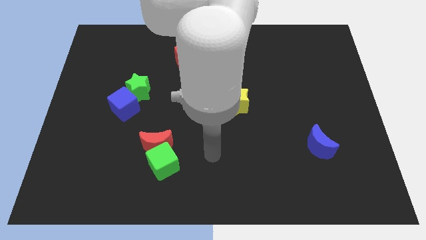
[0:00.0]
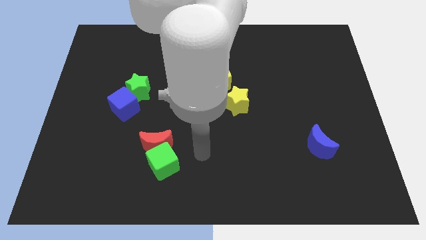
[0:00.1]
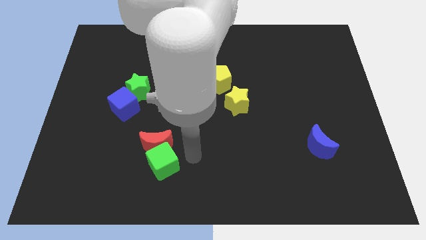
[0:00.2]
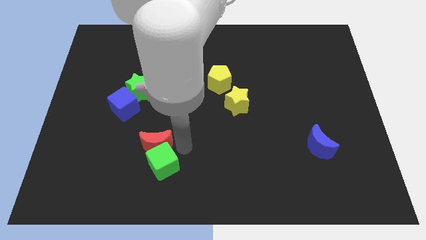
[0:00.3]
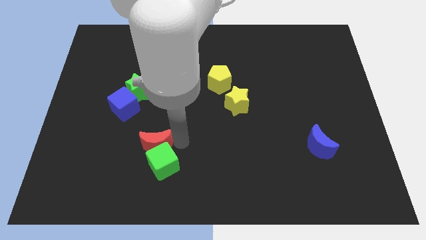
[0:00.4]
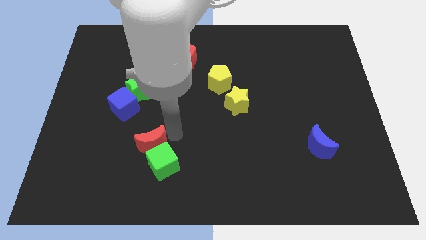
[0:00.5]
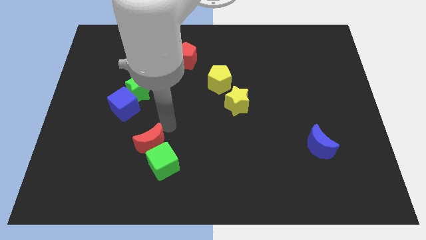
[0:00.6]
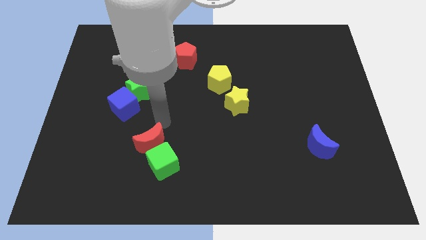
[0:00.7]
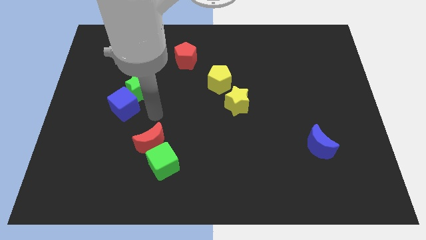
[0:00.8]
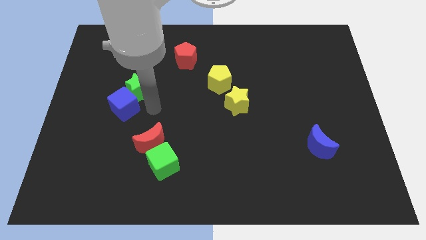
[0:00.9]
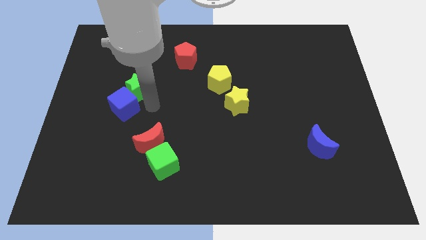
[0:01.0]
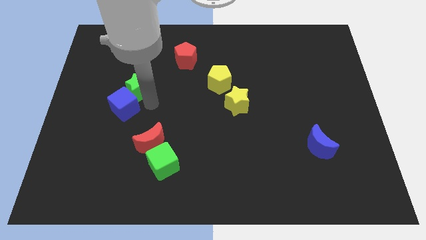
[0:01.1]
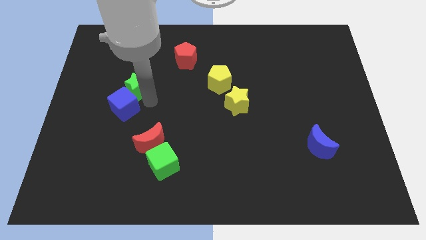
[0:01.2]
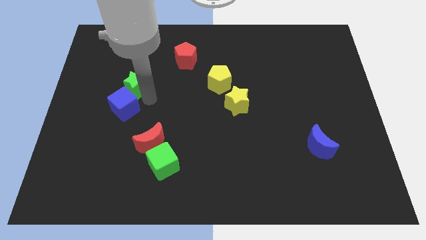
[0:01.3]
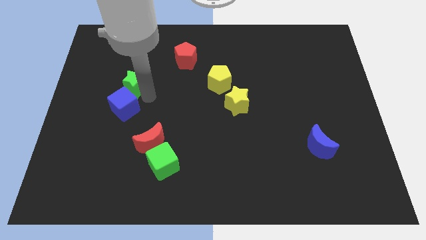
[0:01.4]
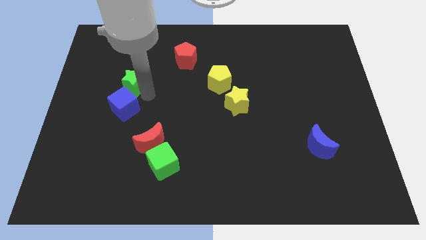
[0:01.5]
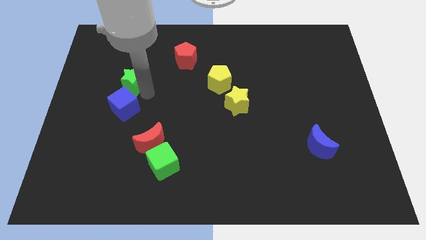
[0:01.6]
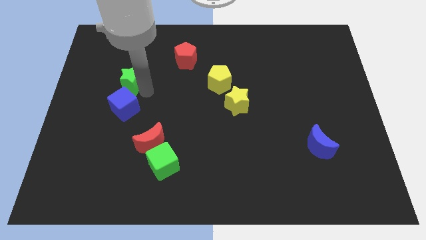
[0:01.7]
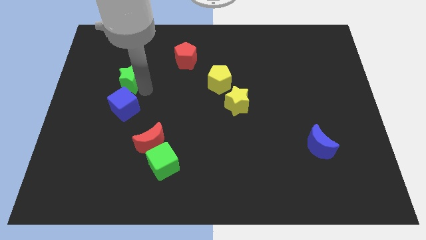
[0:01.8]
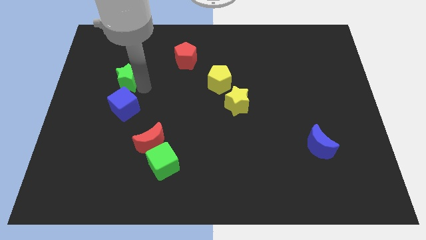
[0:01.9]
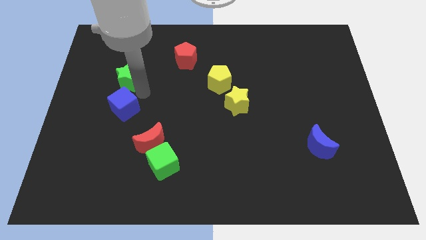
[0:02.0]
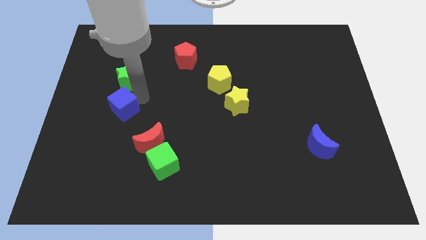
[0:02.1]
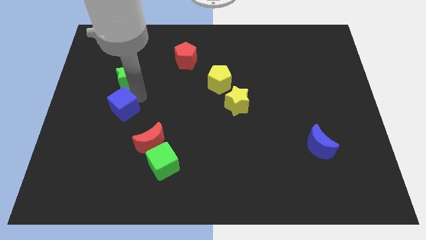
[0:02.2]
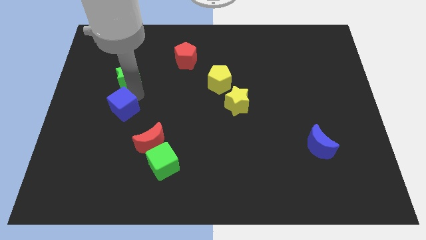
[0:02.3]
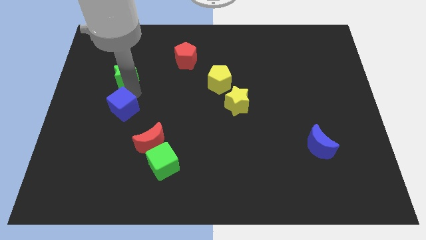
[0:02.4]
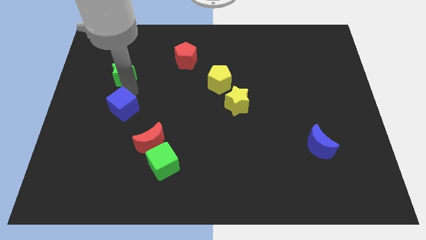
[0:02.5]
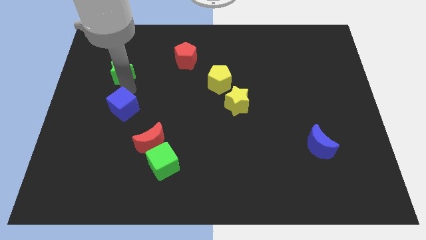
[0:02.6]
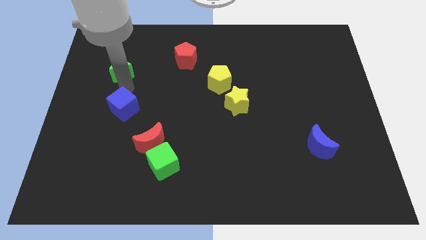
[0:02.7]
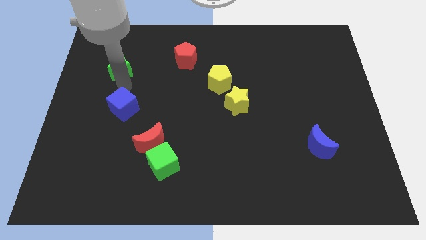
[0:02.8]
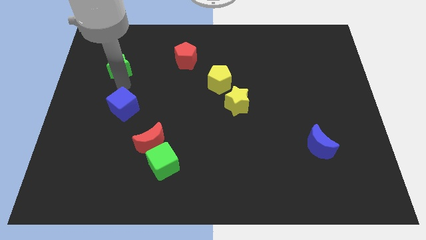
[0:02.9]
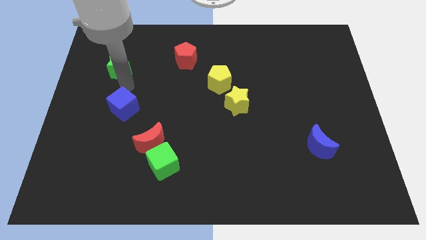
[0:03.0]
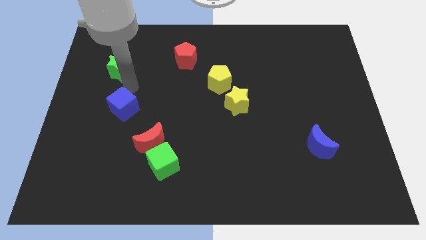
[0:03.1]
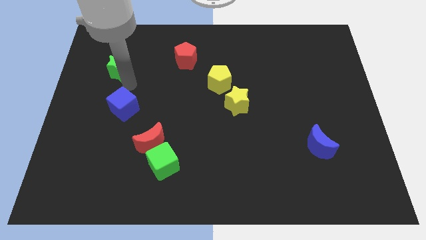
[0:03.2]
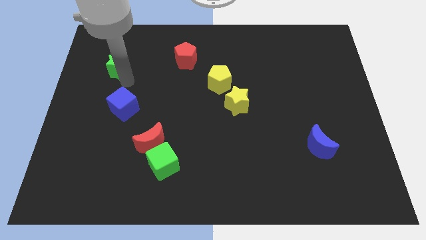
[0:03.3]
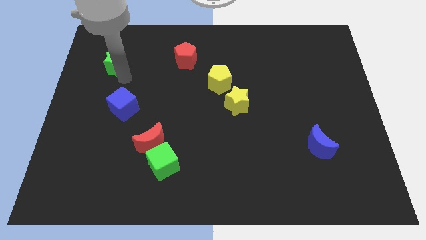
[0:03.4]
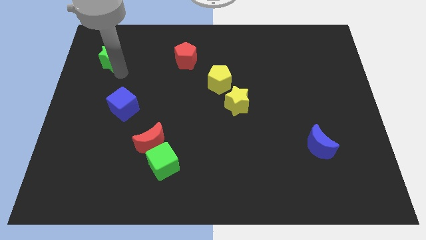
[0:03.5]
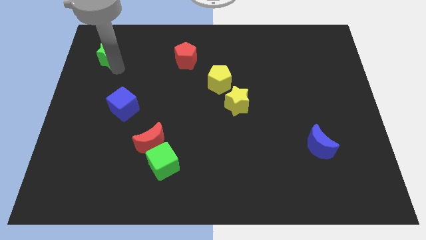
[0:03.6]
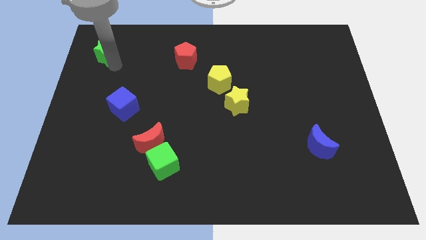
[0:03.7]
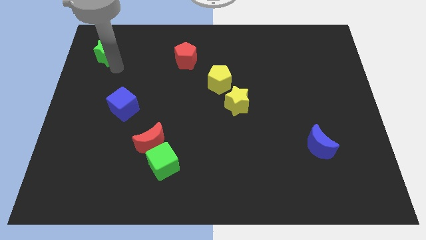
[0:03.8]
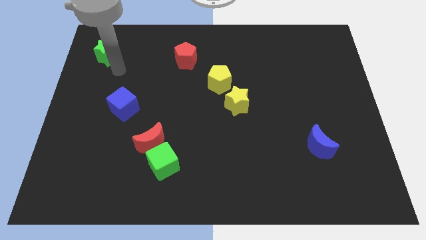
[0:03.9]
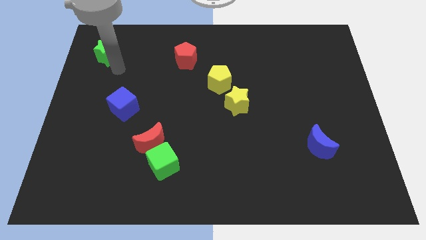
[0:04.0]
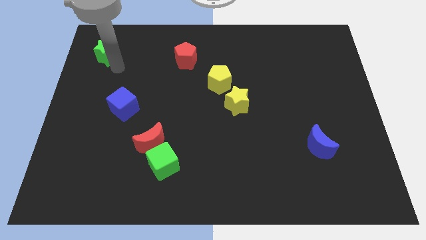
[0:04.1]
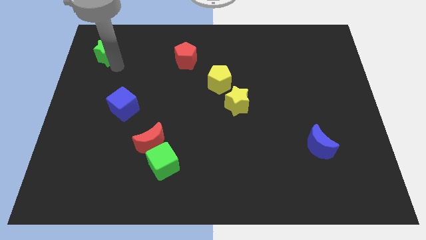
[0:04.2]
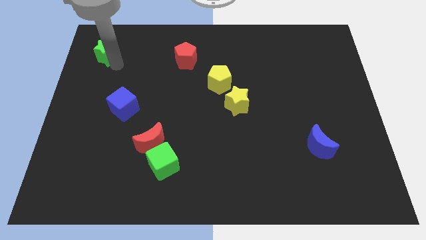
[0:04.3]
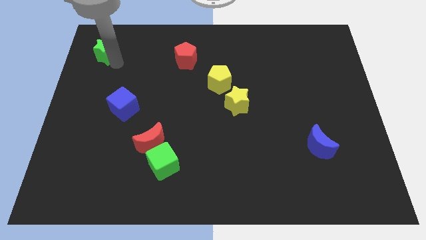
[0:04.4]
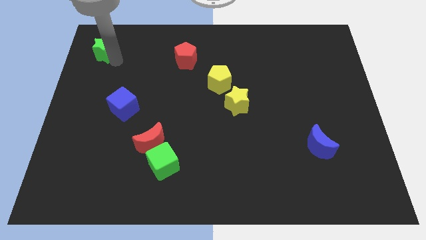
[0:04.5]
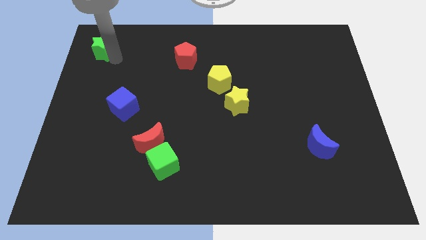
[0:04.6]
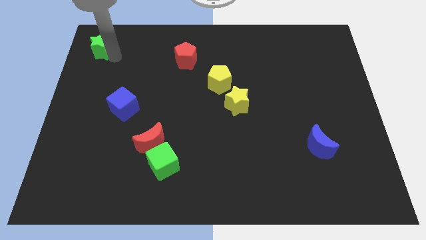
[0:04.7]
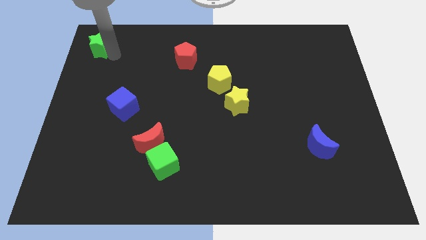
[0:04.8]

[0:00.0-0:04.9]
slide the green star to the top left corner

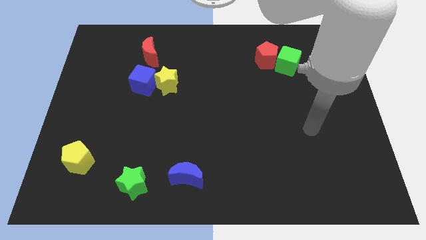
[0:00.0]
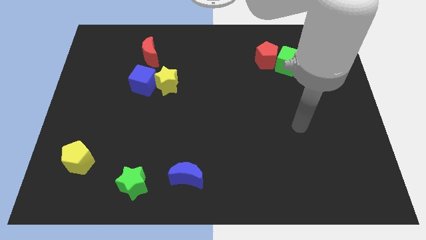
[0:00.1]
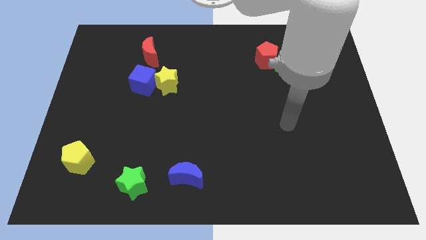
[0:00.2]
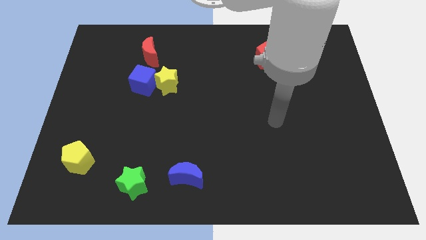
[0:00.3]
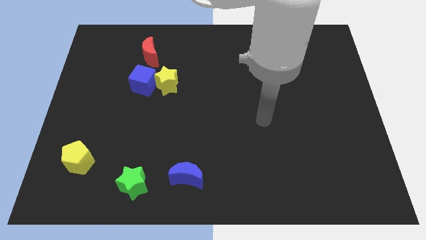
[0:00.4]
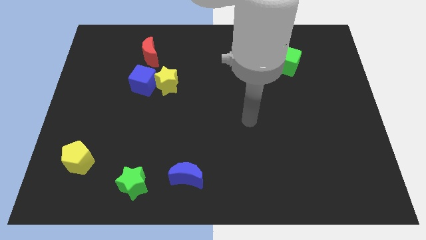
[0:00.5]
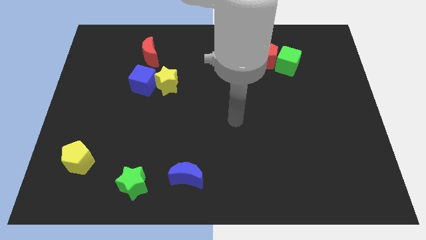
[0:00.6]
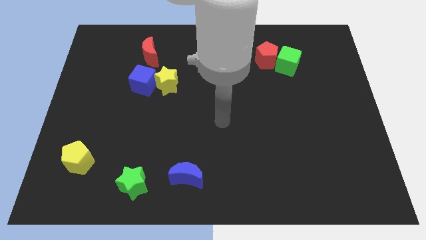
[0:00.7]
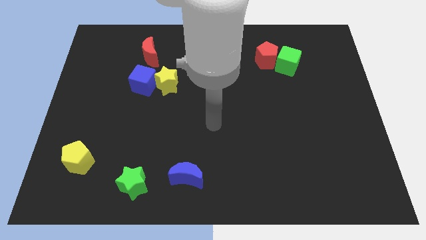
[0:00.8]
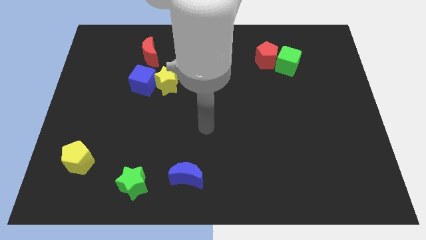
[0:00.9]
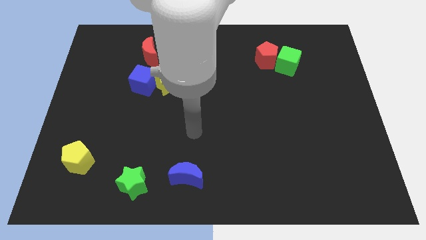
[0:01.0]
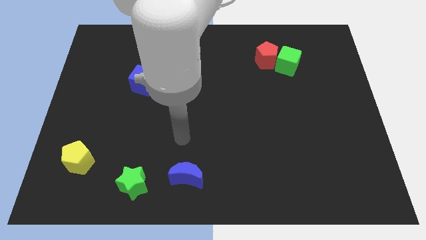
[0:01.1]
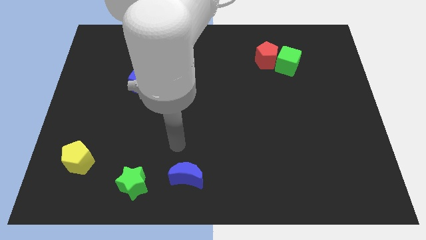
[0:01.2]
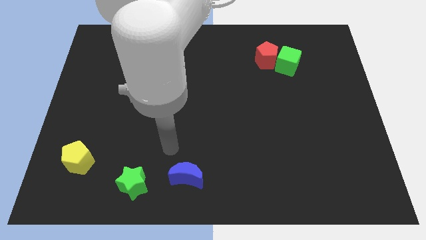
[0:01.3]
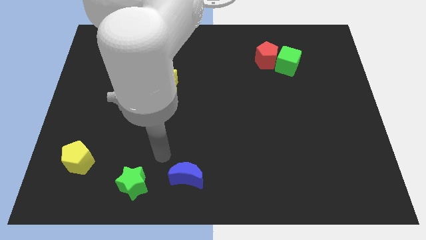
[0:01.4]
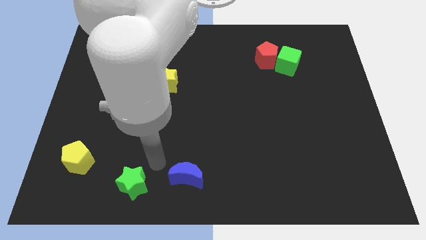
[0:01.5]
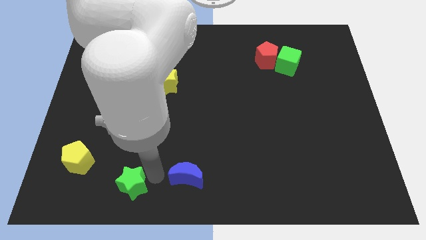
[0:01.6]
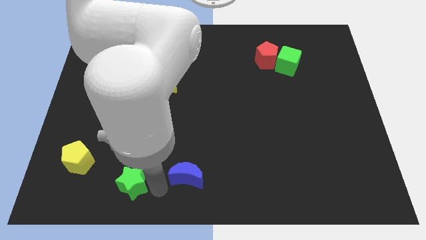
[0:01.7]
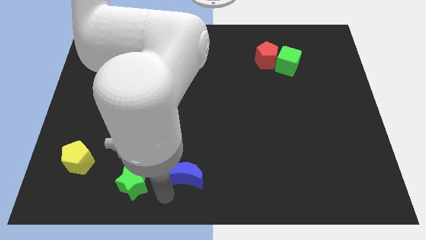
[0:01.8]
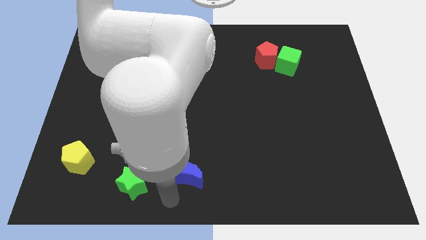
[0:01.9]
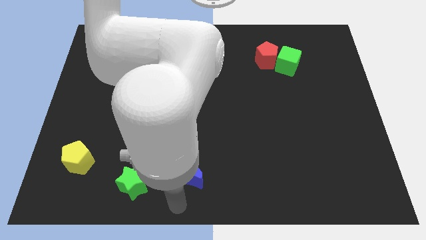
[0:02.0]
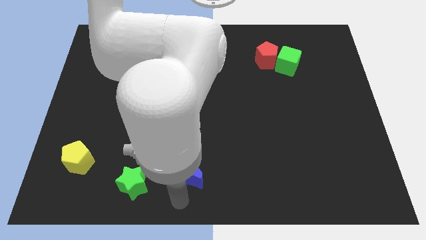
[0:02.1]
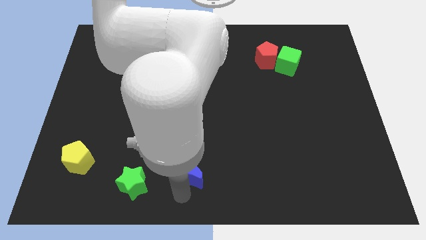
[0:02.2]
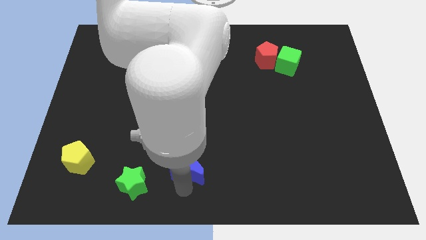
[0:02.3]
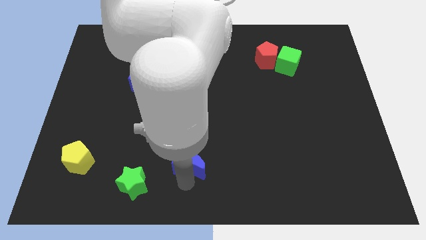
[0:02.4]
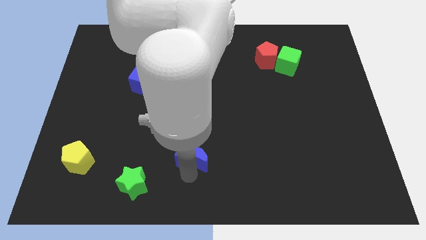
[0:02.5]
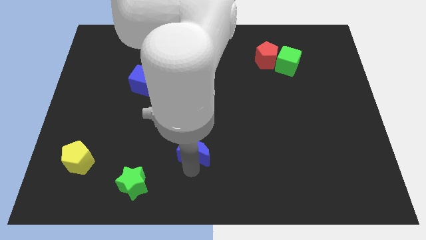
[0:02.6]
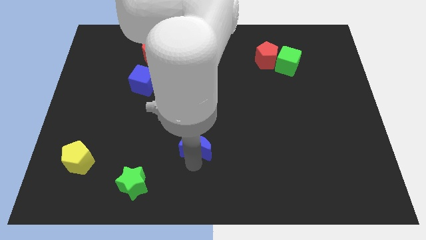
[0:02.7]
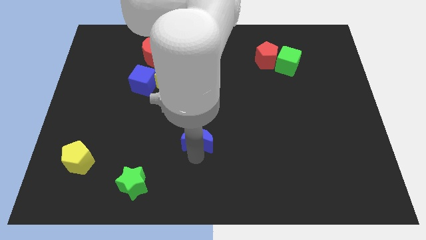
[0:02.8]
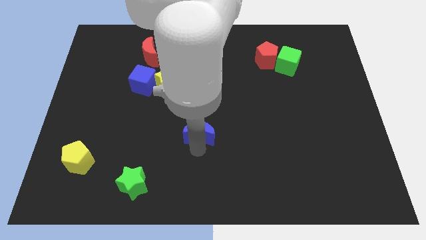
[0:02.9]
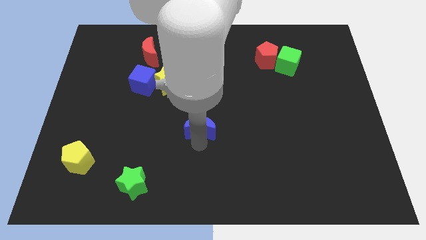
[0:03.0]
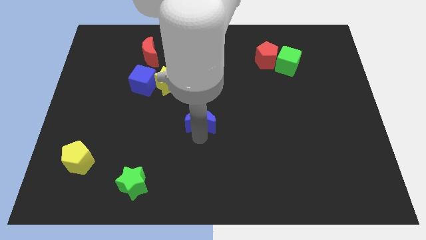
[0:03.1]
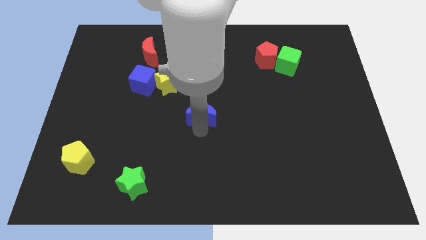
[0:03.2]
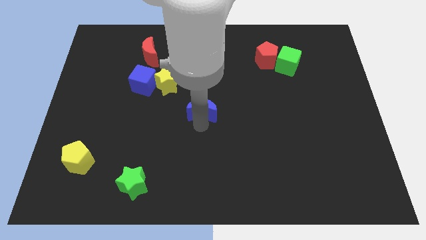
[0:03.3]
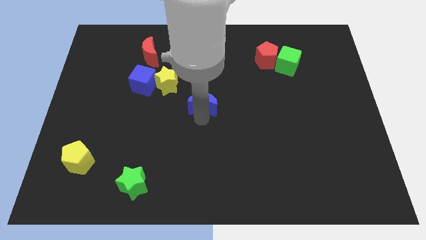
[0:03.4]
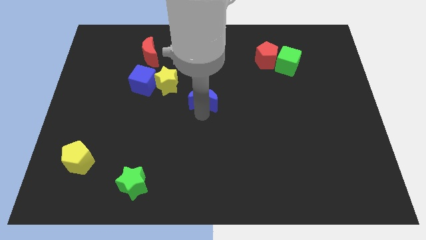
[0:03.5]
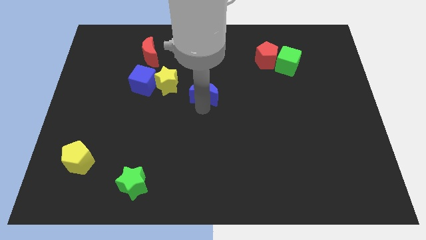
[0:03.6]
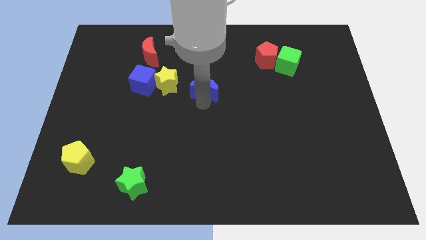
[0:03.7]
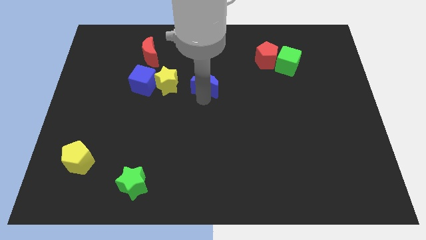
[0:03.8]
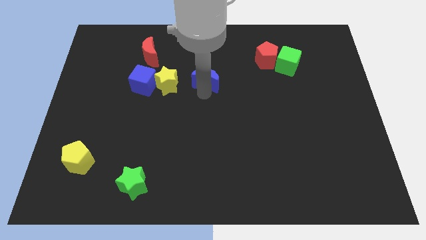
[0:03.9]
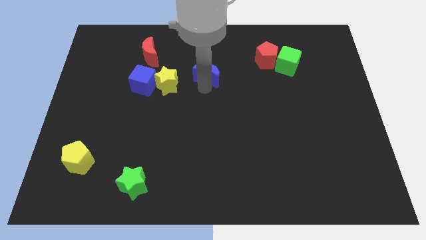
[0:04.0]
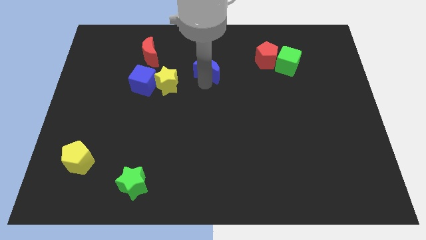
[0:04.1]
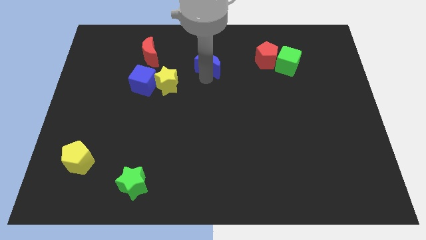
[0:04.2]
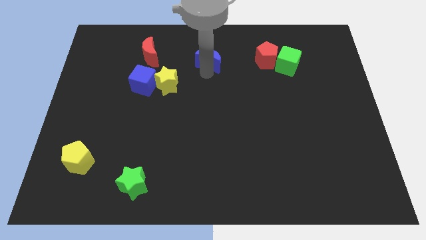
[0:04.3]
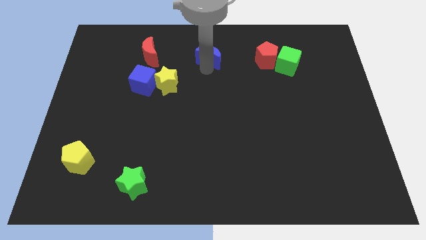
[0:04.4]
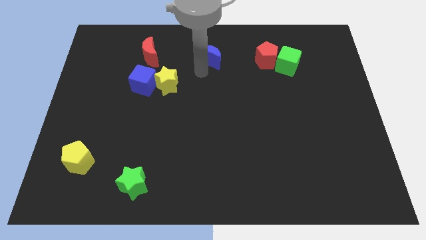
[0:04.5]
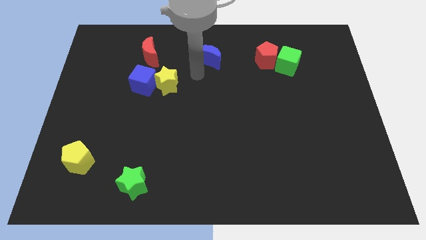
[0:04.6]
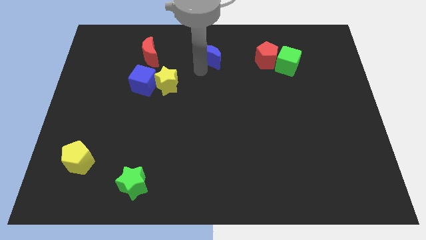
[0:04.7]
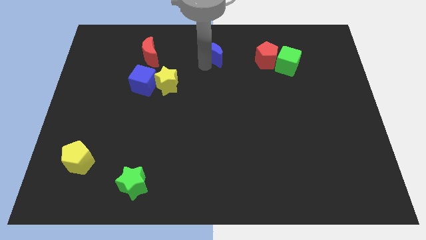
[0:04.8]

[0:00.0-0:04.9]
put the blue moon to the top
